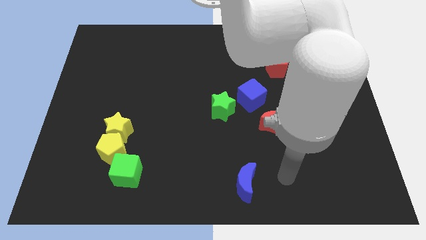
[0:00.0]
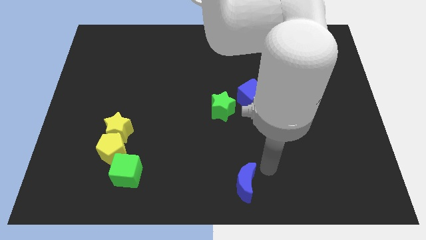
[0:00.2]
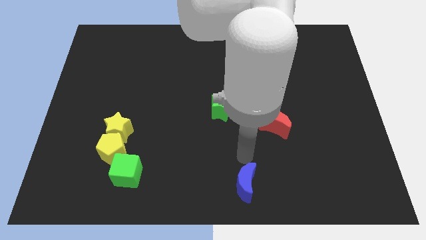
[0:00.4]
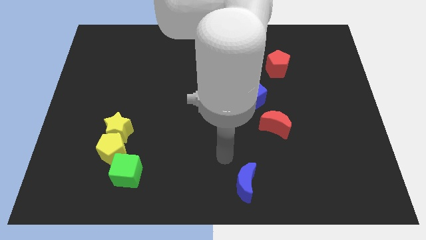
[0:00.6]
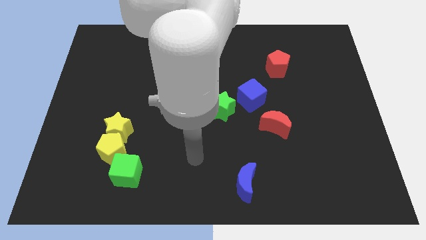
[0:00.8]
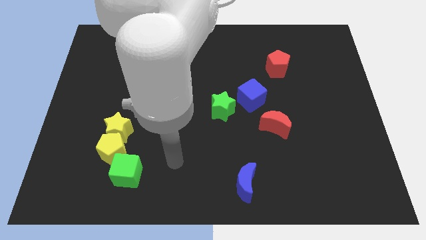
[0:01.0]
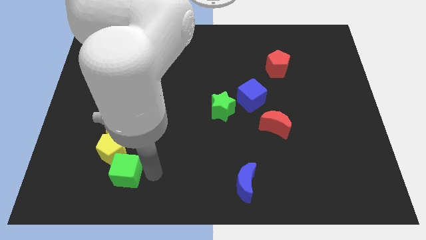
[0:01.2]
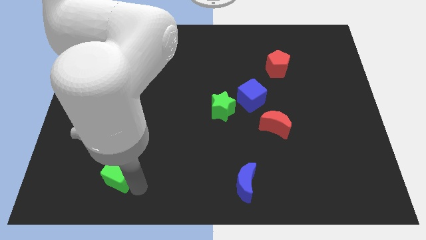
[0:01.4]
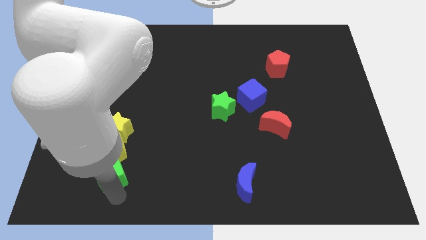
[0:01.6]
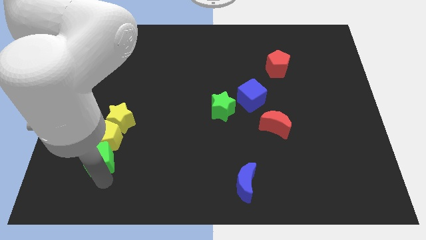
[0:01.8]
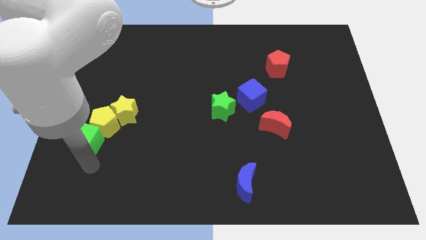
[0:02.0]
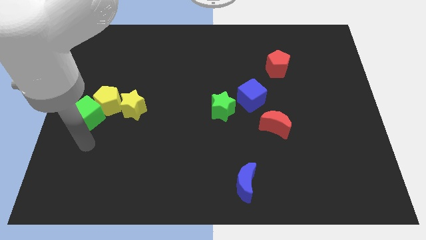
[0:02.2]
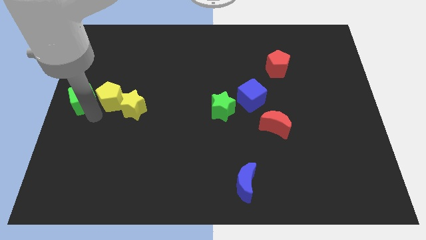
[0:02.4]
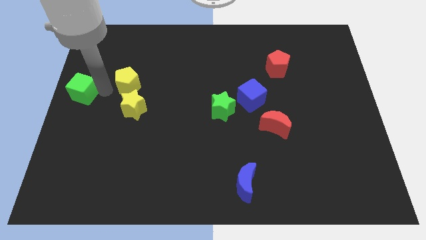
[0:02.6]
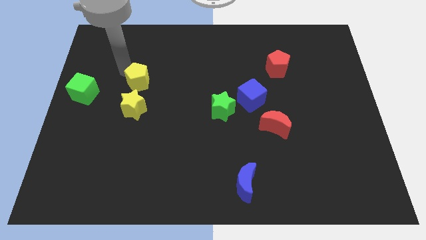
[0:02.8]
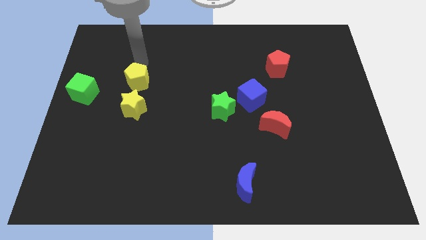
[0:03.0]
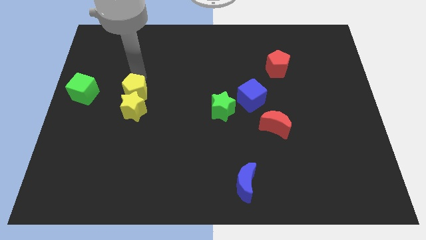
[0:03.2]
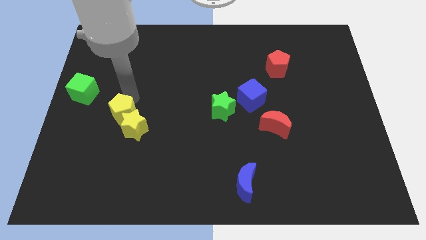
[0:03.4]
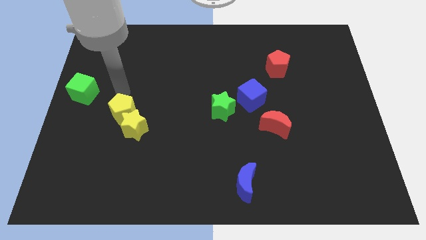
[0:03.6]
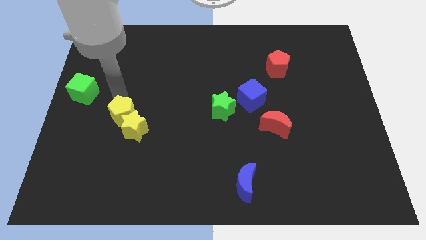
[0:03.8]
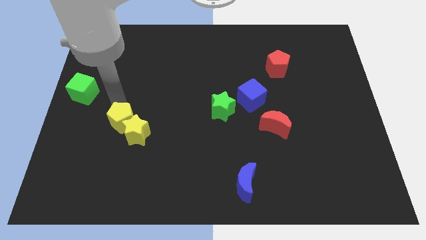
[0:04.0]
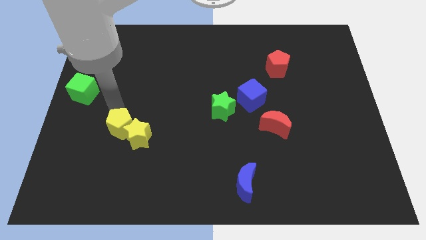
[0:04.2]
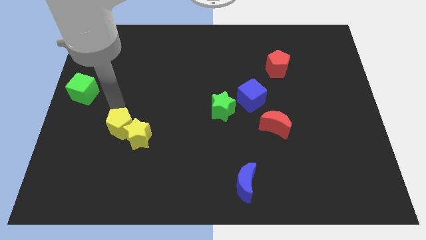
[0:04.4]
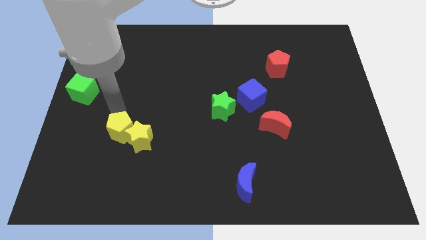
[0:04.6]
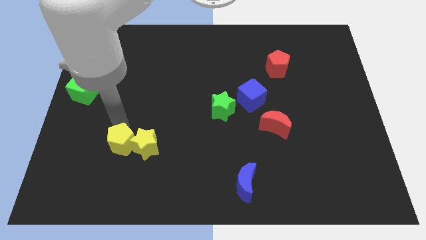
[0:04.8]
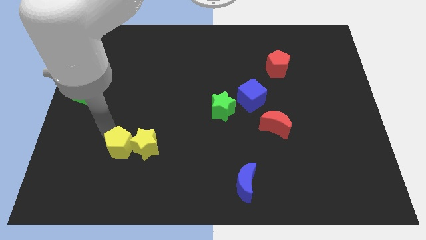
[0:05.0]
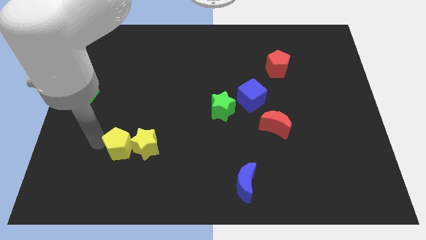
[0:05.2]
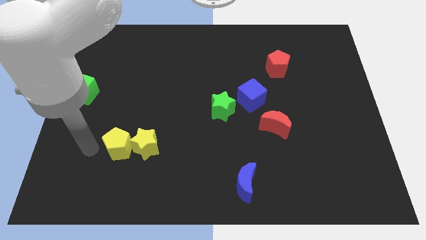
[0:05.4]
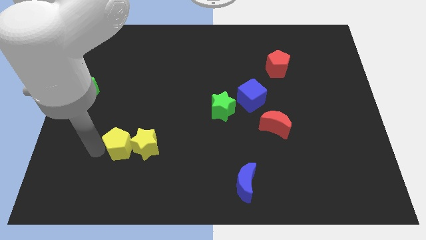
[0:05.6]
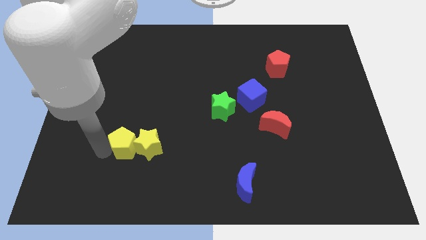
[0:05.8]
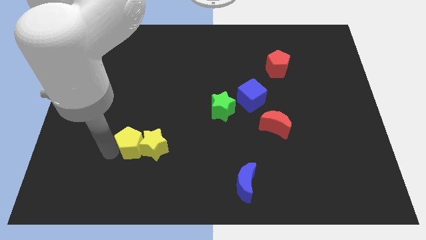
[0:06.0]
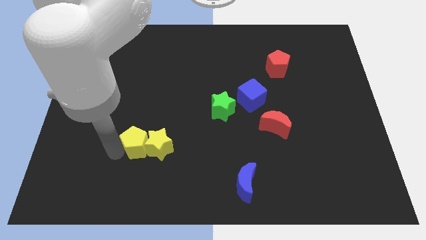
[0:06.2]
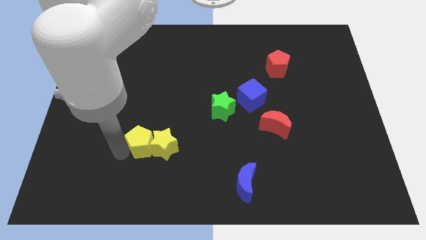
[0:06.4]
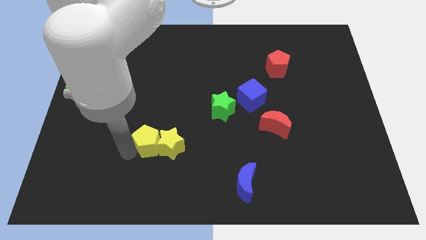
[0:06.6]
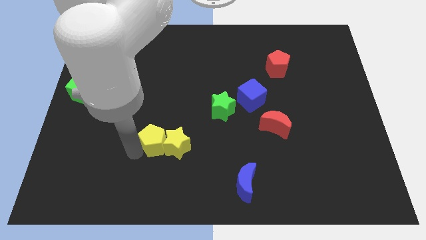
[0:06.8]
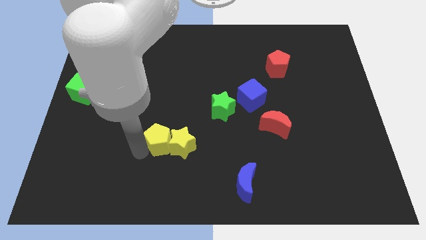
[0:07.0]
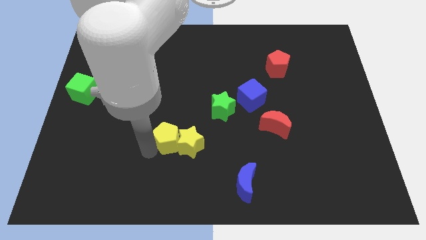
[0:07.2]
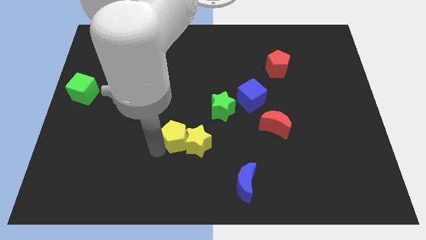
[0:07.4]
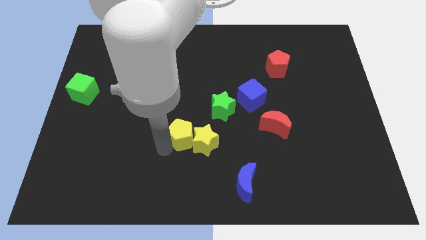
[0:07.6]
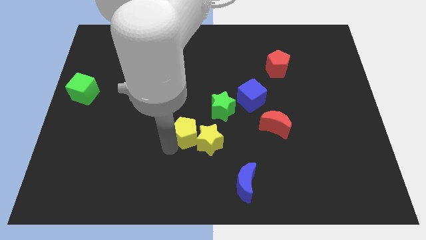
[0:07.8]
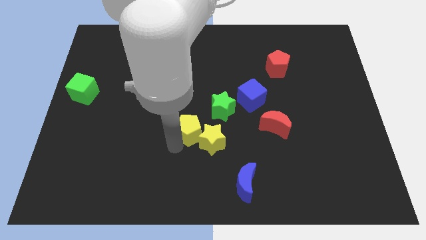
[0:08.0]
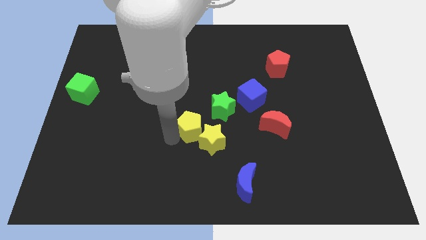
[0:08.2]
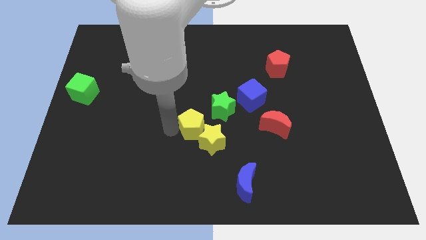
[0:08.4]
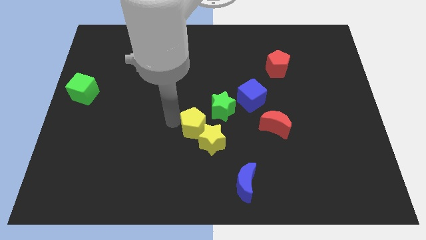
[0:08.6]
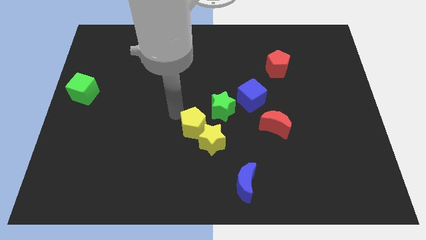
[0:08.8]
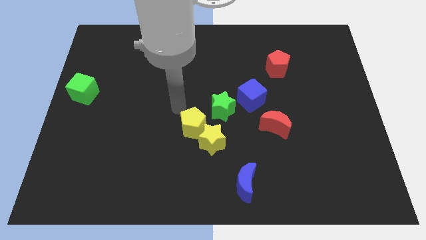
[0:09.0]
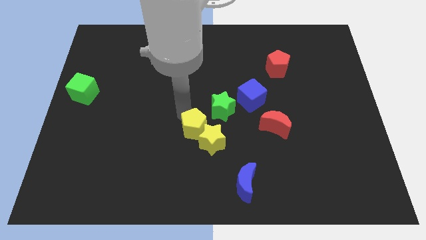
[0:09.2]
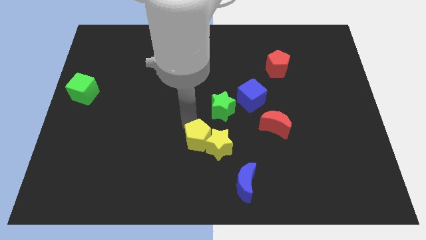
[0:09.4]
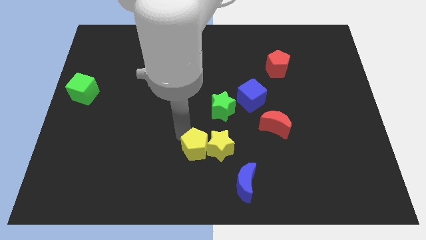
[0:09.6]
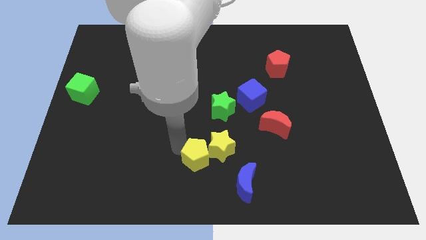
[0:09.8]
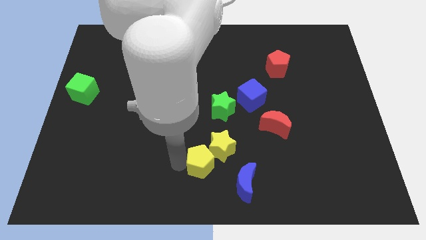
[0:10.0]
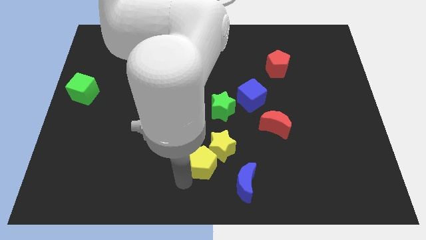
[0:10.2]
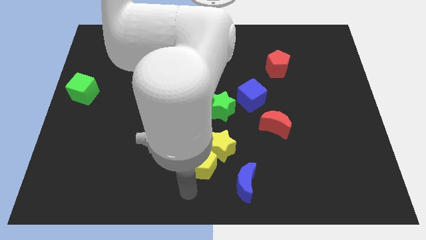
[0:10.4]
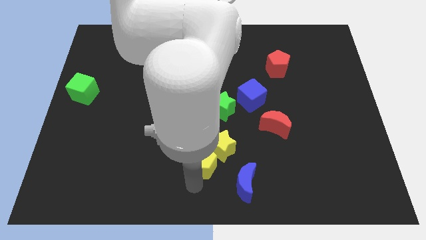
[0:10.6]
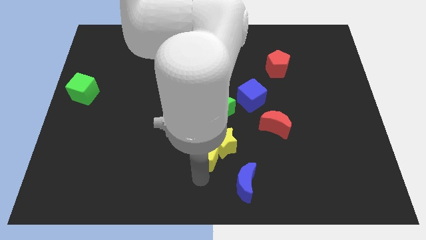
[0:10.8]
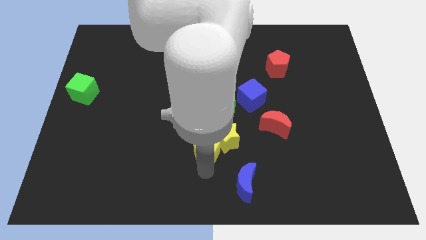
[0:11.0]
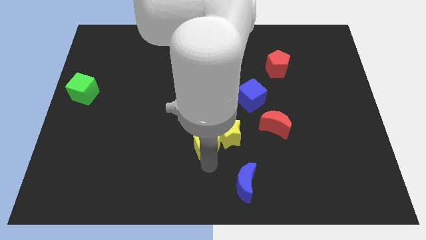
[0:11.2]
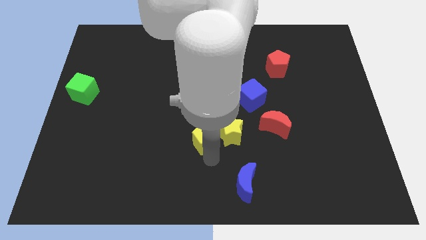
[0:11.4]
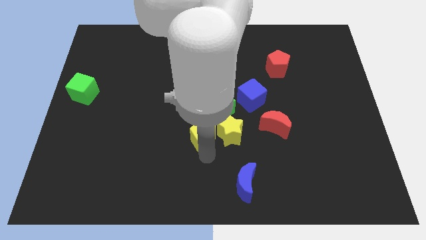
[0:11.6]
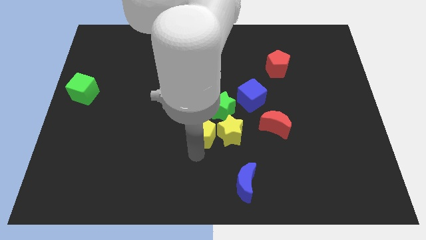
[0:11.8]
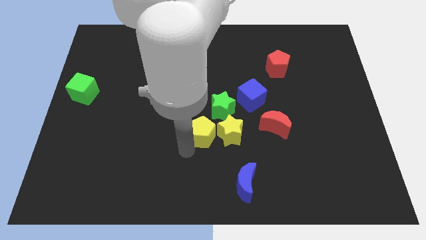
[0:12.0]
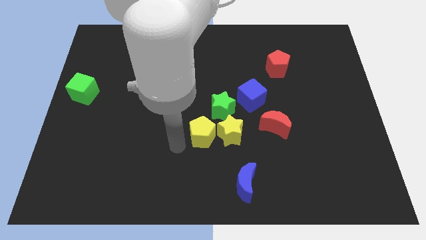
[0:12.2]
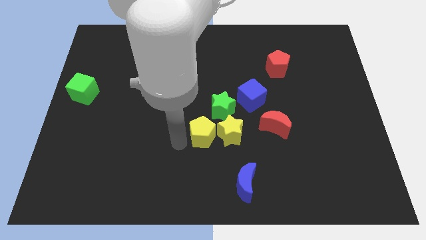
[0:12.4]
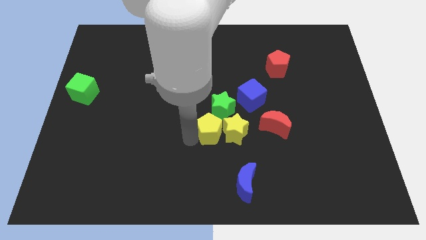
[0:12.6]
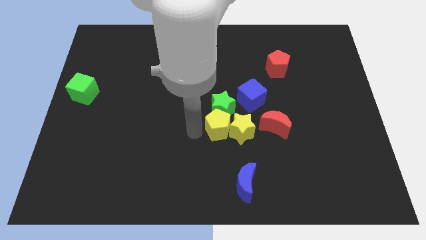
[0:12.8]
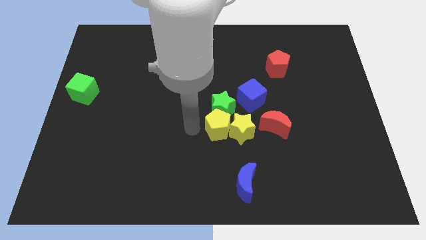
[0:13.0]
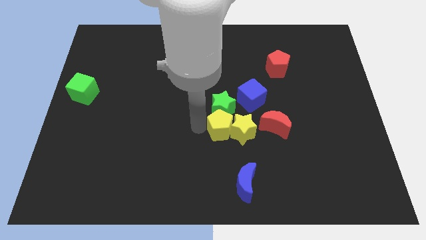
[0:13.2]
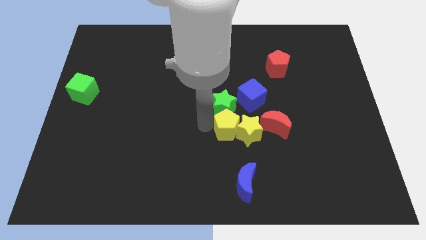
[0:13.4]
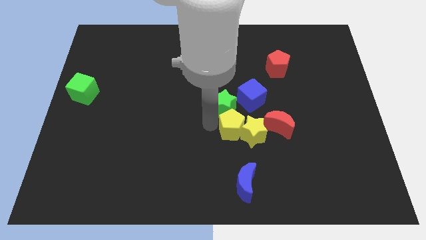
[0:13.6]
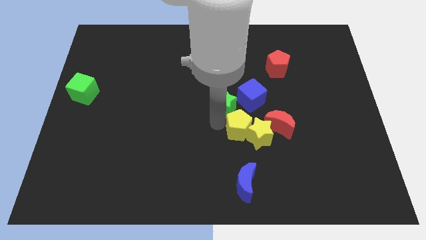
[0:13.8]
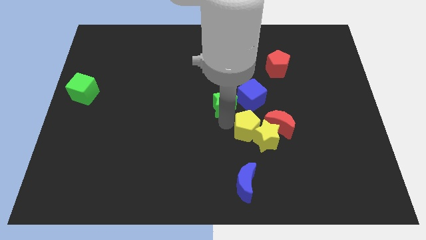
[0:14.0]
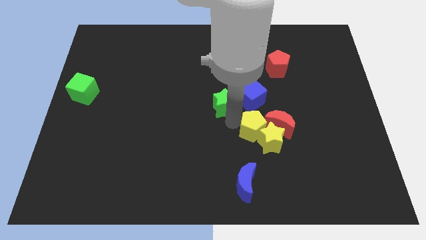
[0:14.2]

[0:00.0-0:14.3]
slide the yellow pentagon next to the red moon

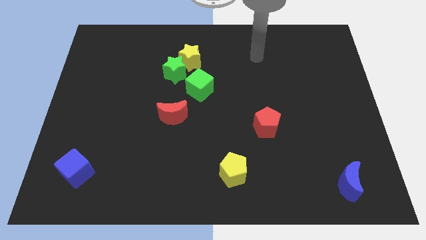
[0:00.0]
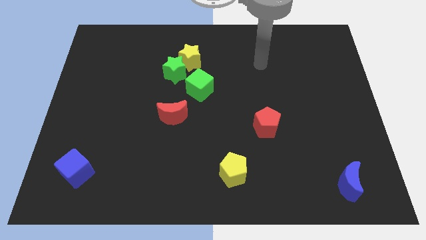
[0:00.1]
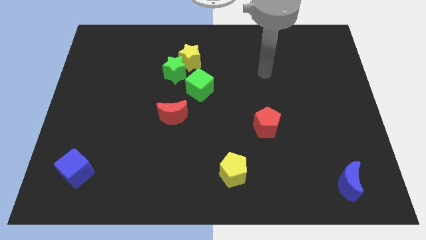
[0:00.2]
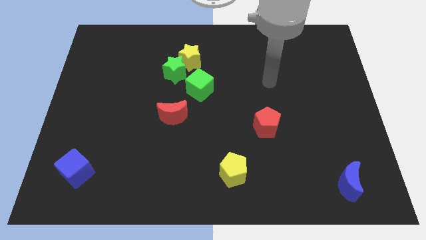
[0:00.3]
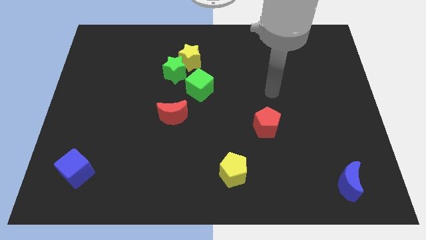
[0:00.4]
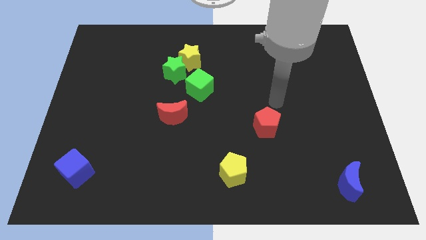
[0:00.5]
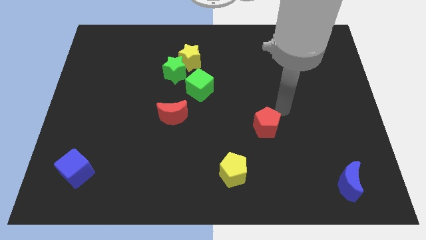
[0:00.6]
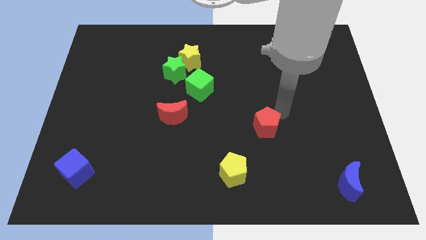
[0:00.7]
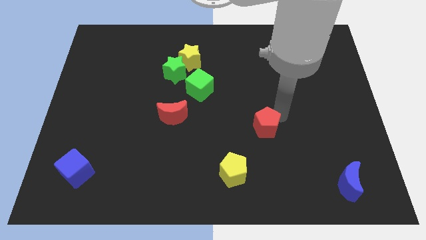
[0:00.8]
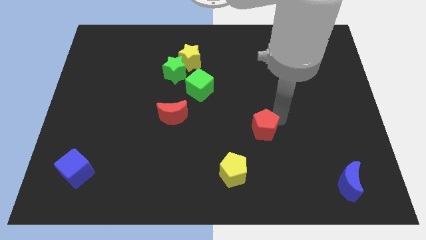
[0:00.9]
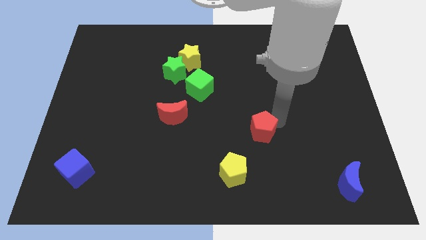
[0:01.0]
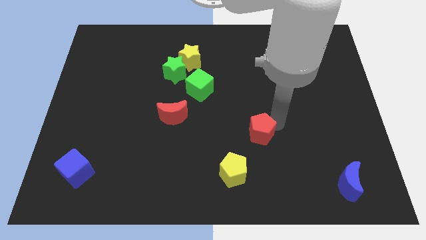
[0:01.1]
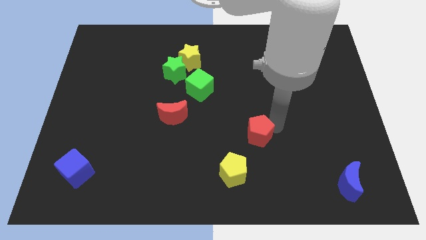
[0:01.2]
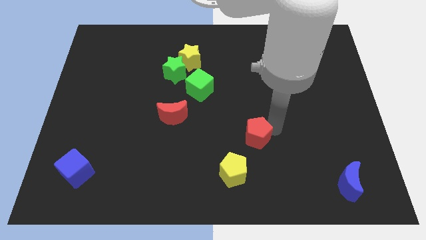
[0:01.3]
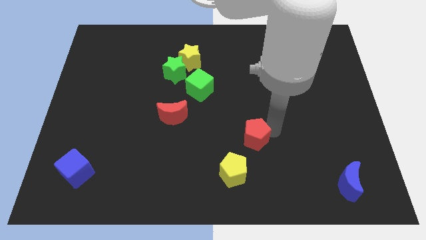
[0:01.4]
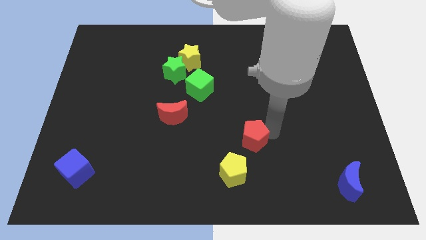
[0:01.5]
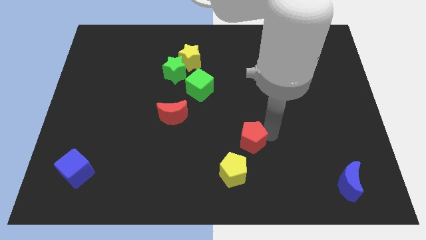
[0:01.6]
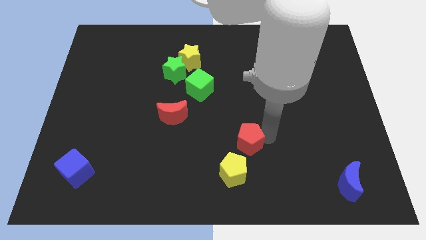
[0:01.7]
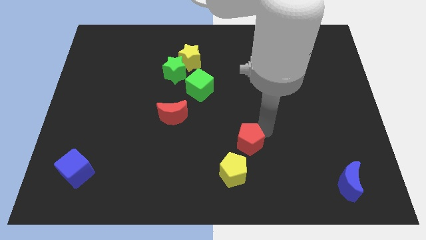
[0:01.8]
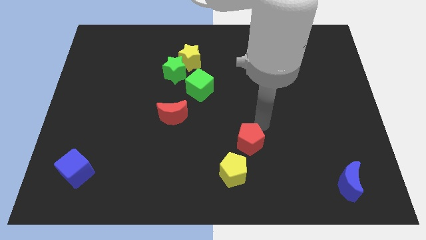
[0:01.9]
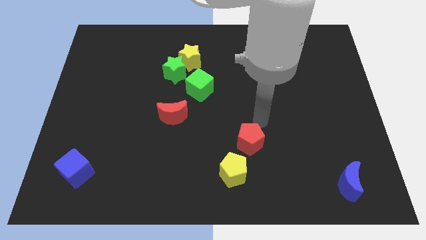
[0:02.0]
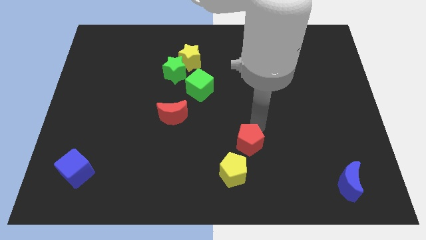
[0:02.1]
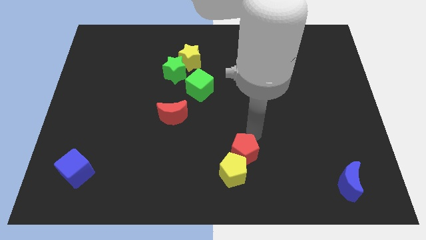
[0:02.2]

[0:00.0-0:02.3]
slide the red pentagon to the yellow pentagon
